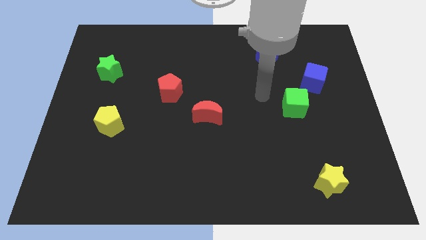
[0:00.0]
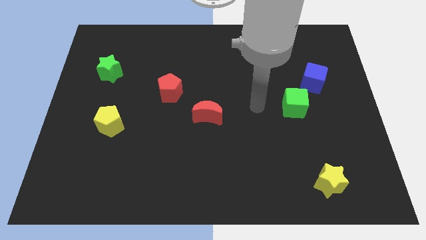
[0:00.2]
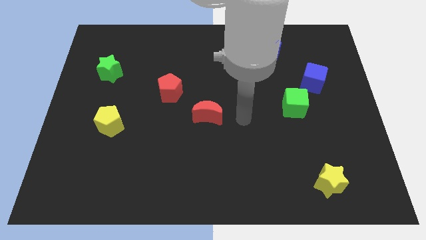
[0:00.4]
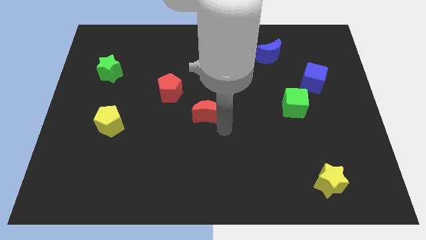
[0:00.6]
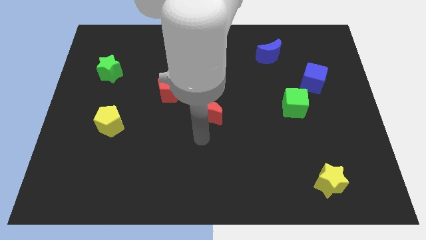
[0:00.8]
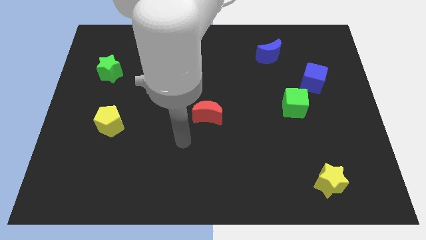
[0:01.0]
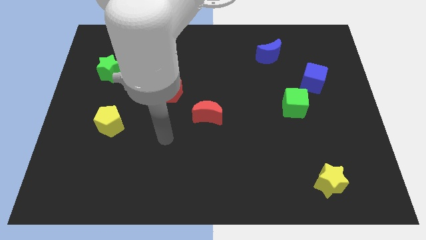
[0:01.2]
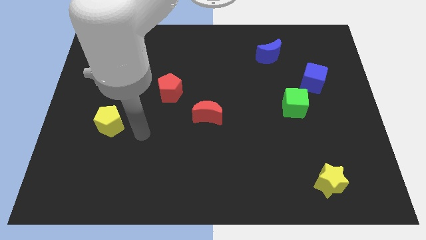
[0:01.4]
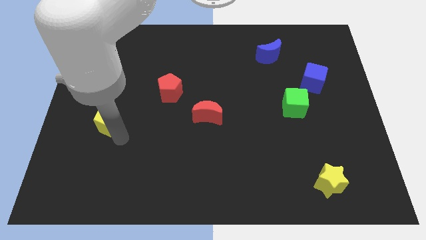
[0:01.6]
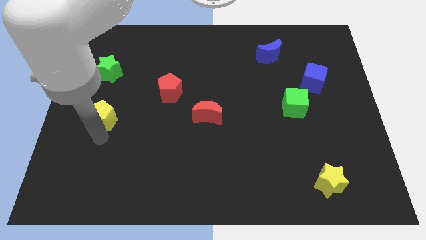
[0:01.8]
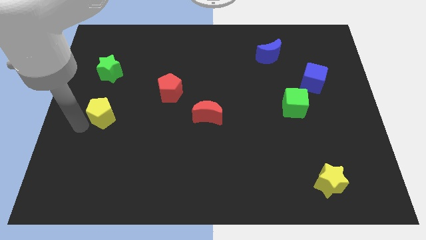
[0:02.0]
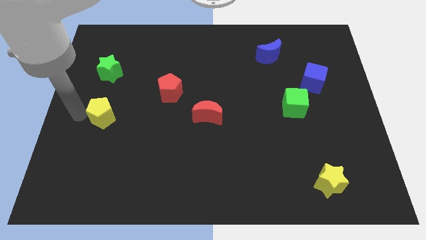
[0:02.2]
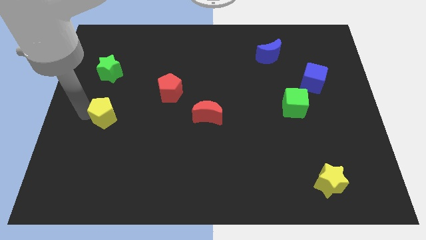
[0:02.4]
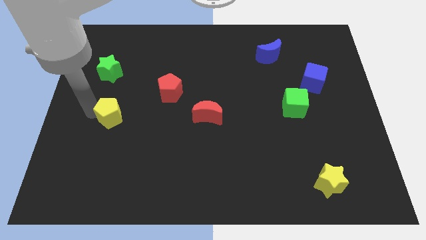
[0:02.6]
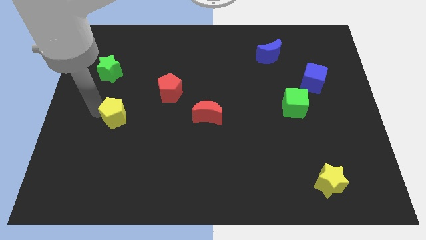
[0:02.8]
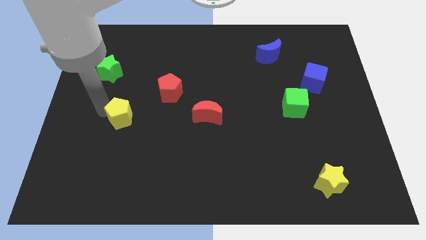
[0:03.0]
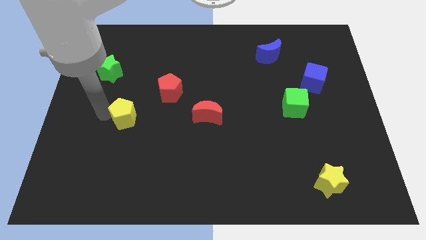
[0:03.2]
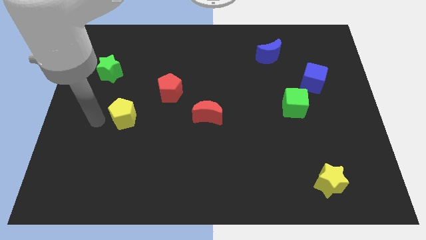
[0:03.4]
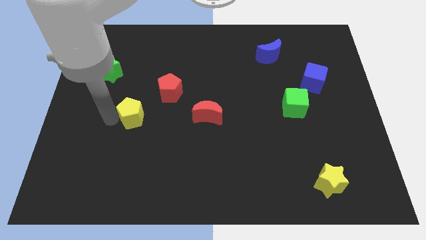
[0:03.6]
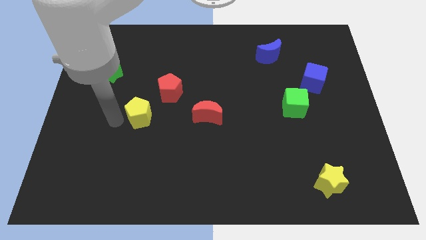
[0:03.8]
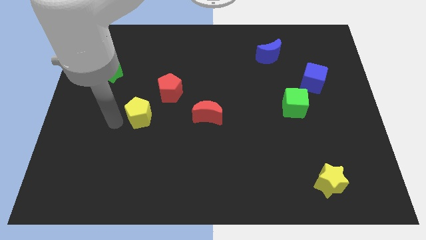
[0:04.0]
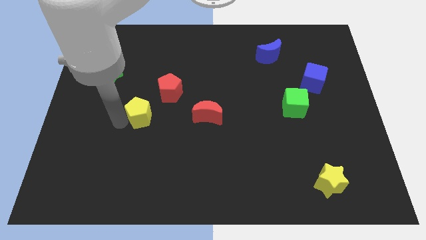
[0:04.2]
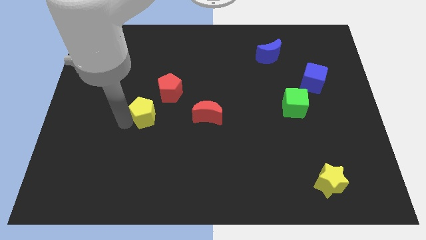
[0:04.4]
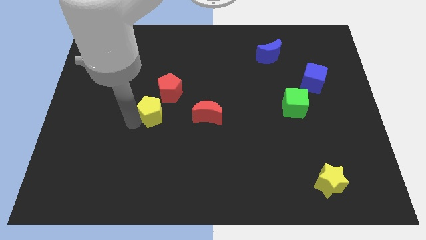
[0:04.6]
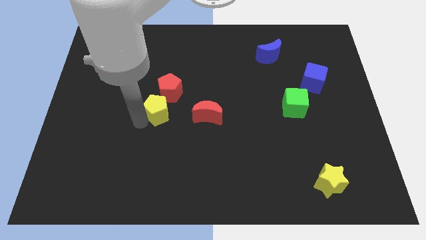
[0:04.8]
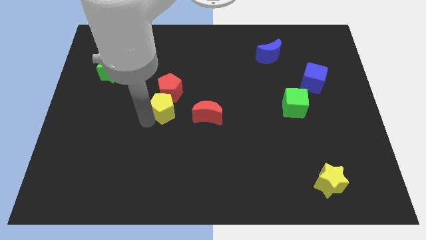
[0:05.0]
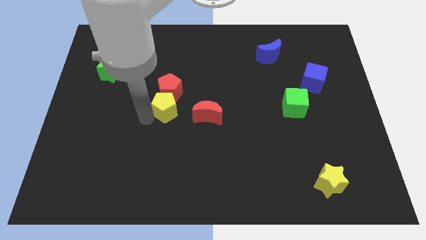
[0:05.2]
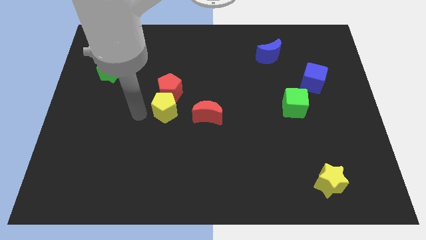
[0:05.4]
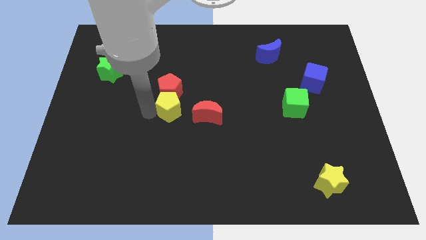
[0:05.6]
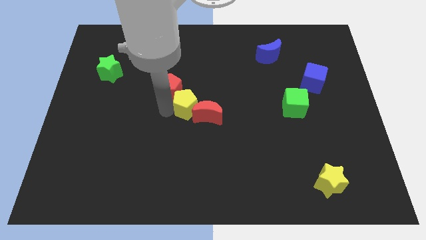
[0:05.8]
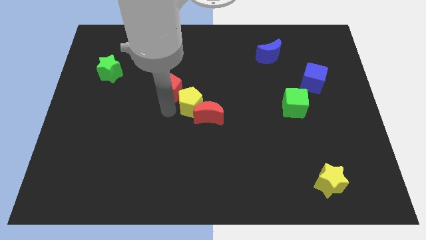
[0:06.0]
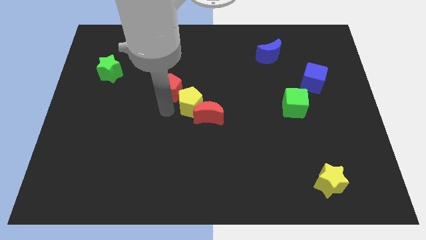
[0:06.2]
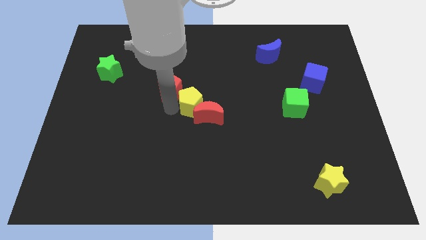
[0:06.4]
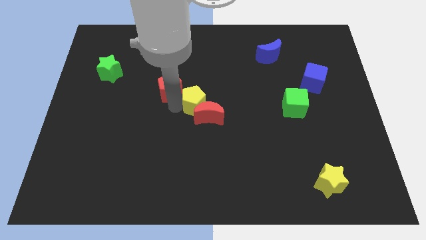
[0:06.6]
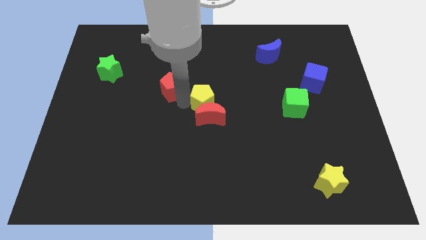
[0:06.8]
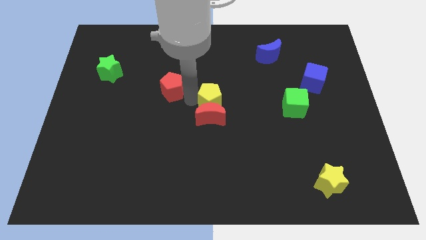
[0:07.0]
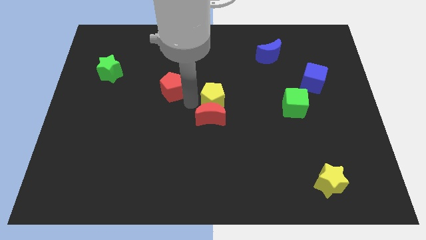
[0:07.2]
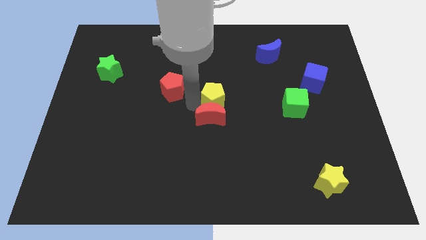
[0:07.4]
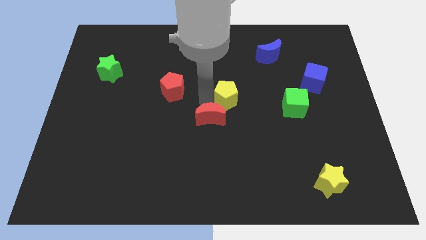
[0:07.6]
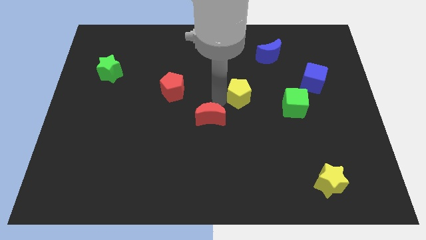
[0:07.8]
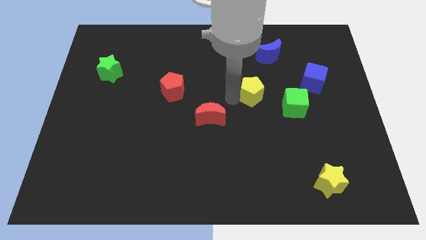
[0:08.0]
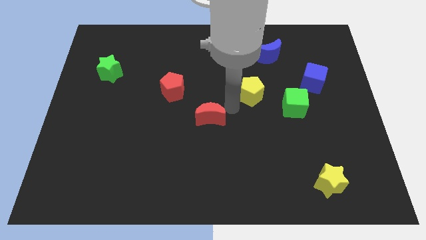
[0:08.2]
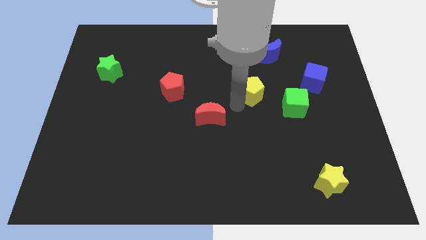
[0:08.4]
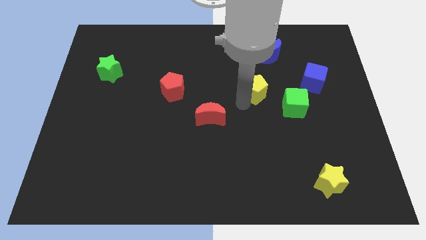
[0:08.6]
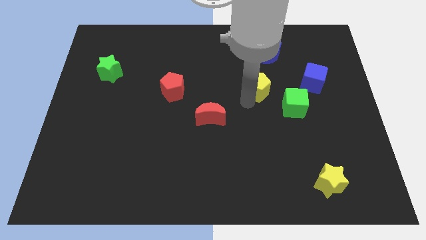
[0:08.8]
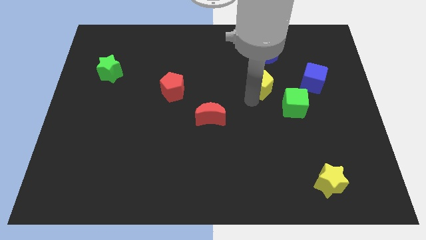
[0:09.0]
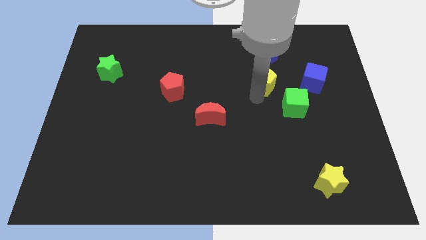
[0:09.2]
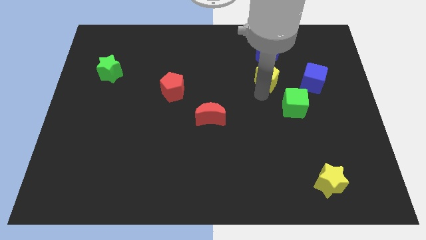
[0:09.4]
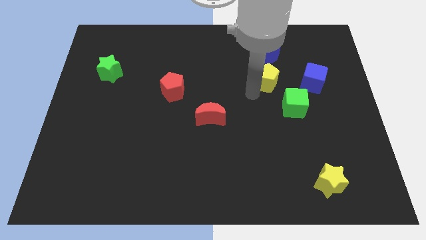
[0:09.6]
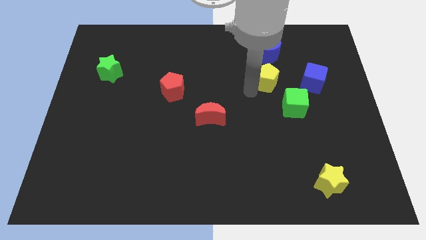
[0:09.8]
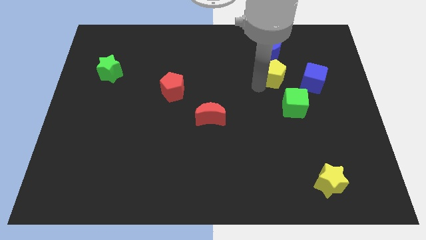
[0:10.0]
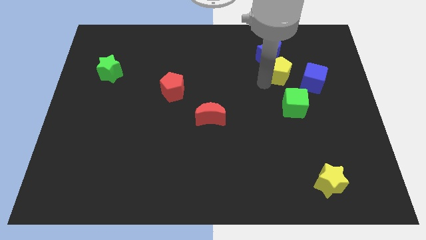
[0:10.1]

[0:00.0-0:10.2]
push the yellow pentagon diagonally up and to the left of the blue cube

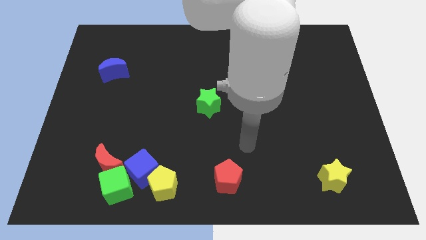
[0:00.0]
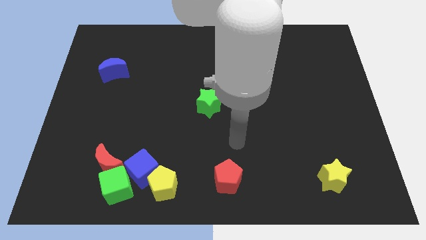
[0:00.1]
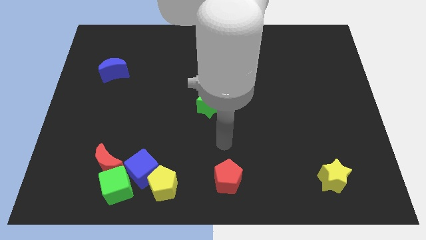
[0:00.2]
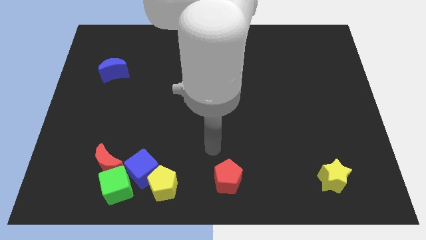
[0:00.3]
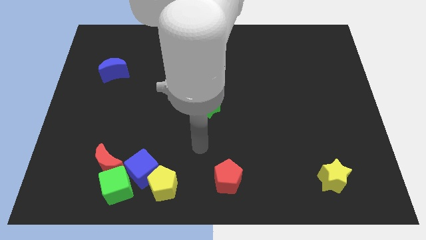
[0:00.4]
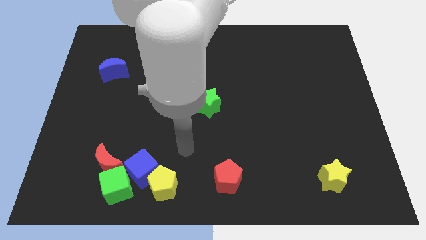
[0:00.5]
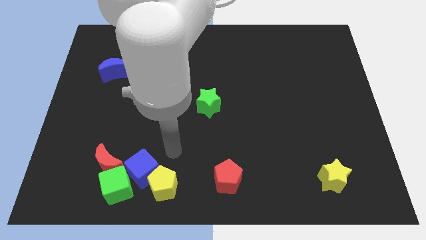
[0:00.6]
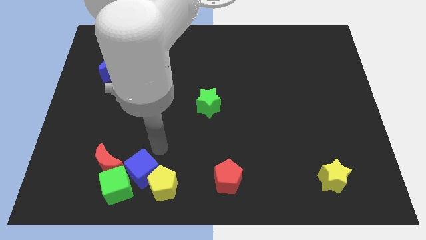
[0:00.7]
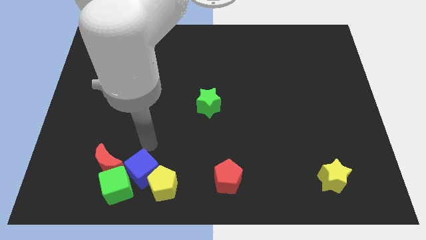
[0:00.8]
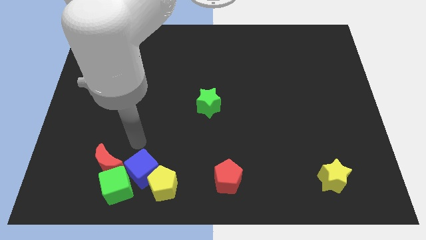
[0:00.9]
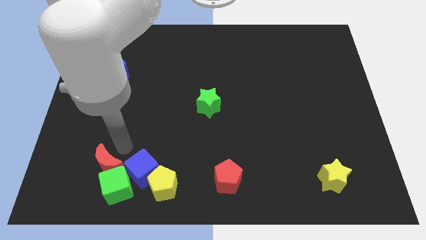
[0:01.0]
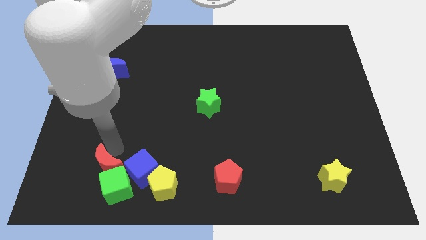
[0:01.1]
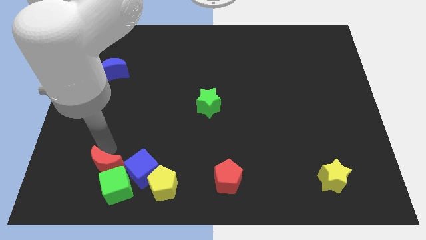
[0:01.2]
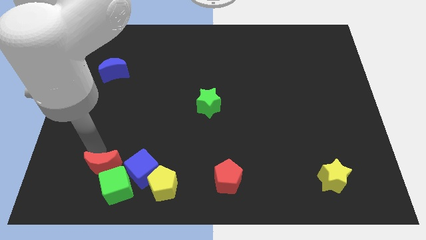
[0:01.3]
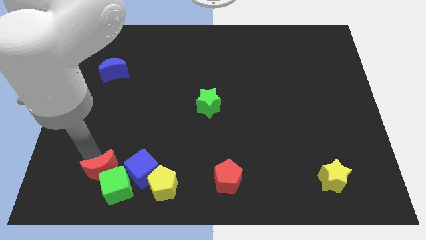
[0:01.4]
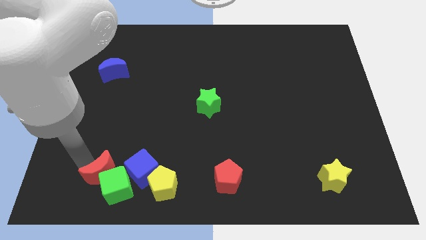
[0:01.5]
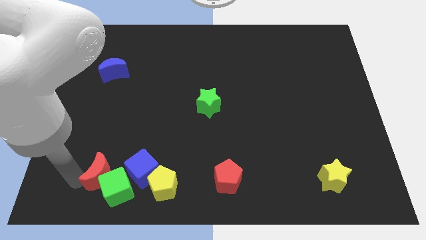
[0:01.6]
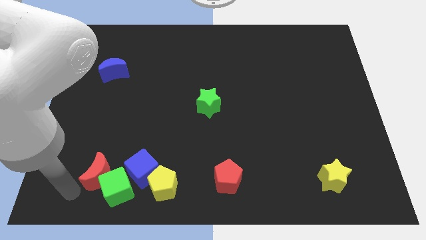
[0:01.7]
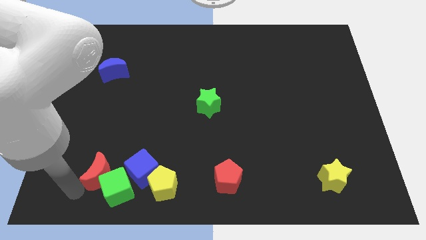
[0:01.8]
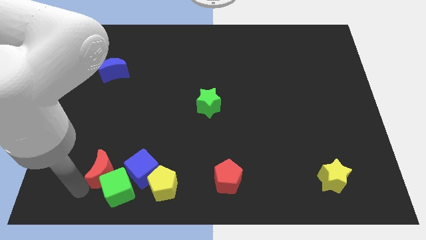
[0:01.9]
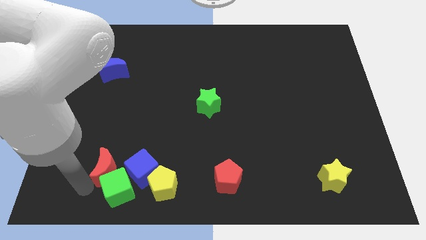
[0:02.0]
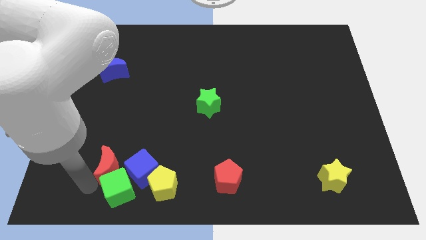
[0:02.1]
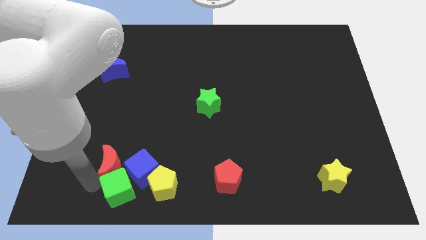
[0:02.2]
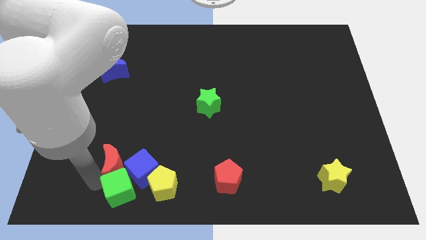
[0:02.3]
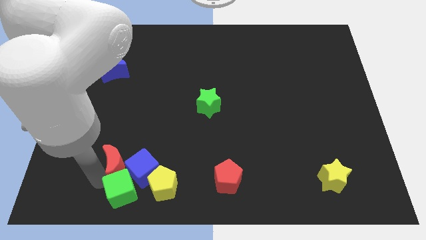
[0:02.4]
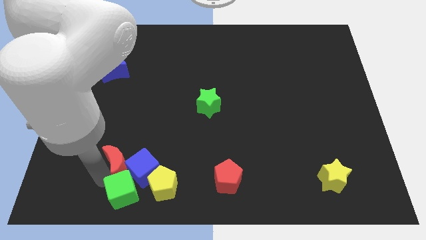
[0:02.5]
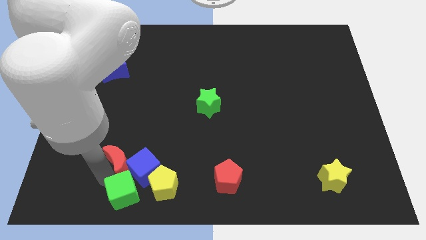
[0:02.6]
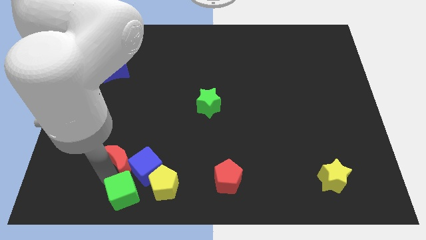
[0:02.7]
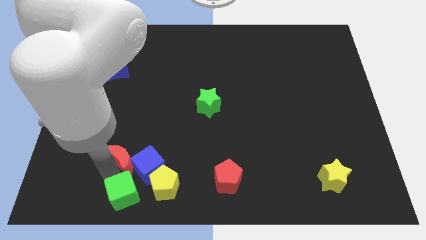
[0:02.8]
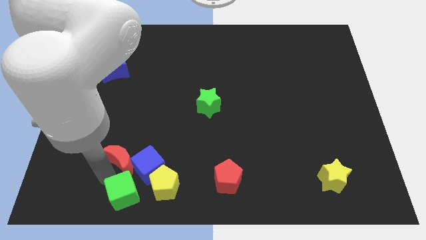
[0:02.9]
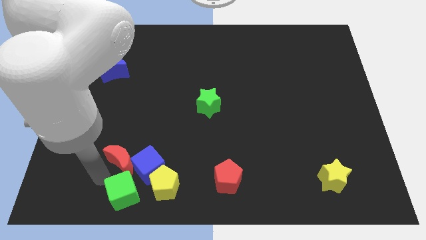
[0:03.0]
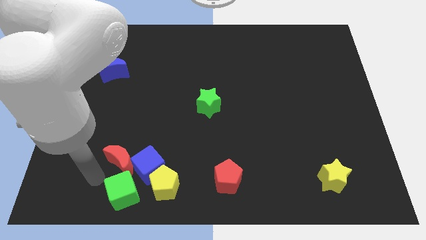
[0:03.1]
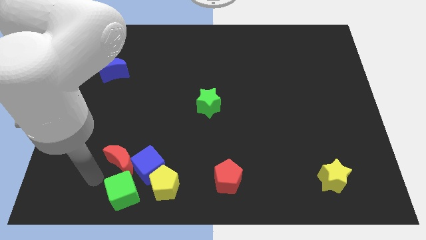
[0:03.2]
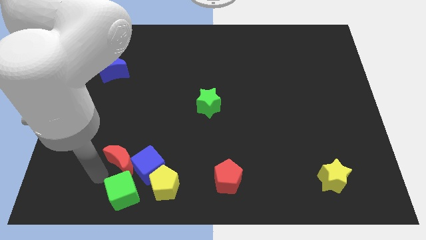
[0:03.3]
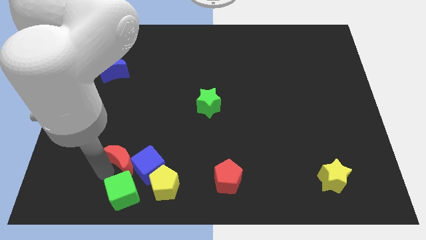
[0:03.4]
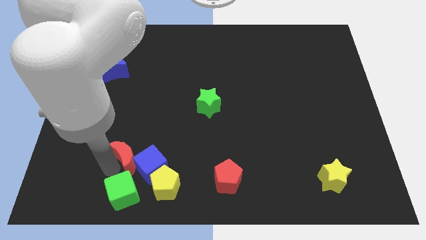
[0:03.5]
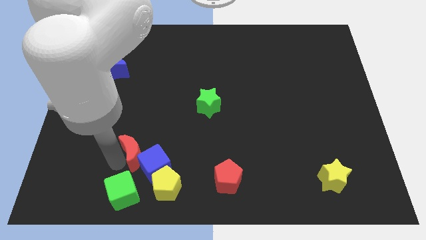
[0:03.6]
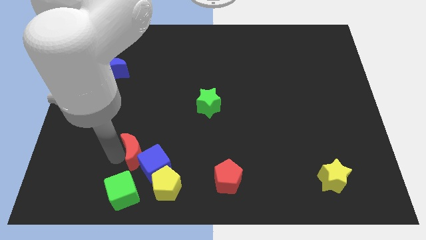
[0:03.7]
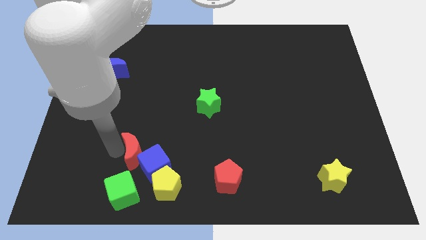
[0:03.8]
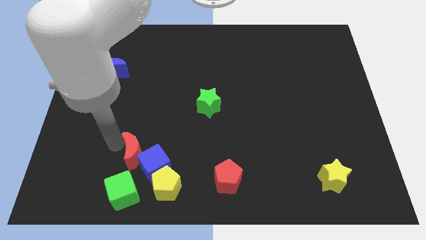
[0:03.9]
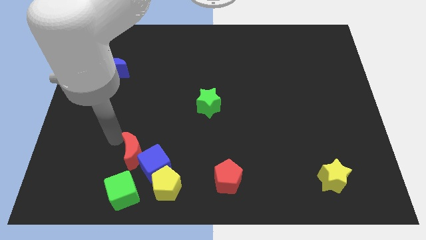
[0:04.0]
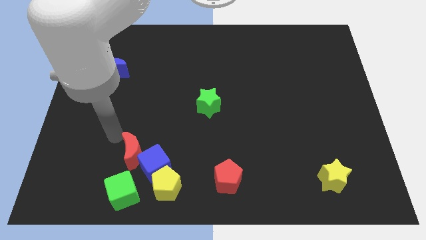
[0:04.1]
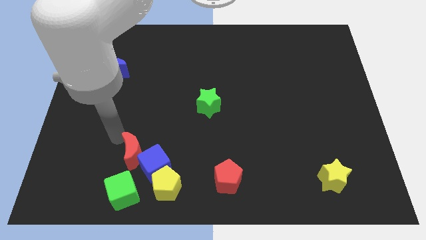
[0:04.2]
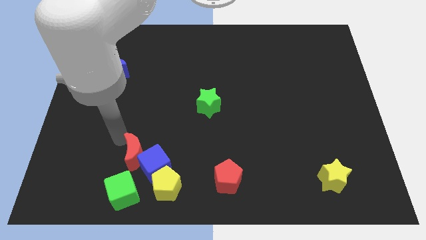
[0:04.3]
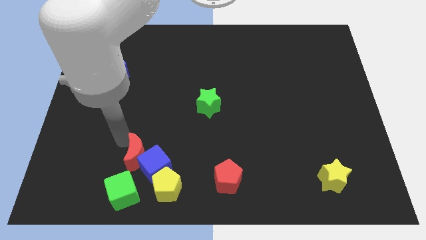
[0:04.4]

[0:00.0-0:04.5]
push the red moon to the top right of the green cube
